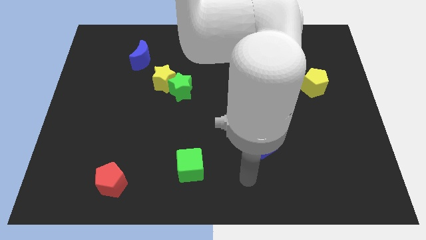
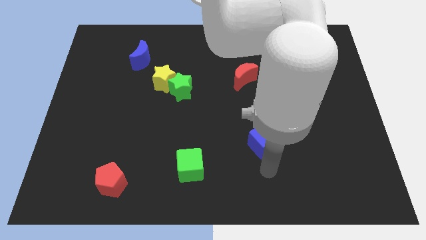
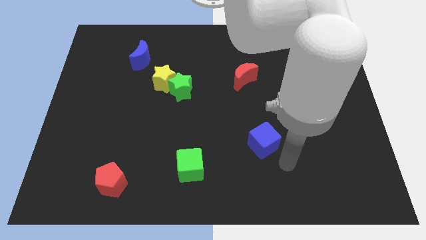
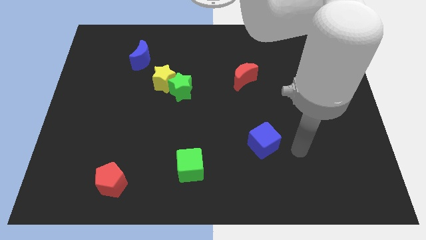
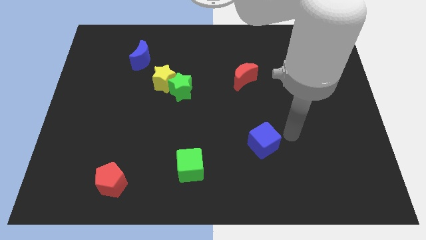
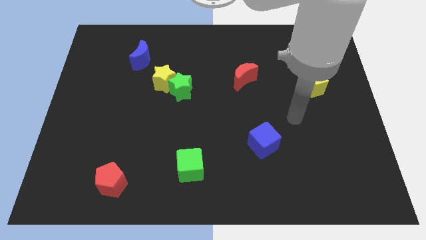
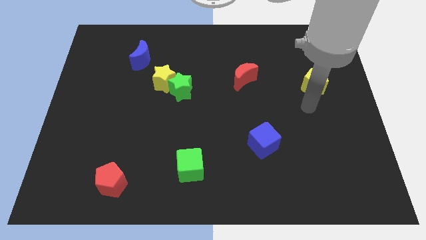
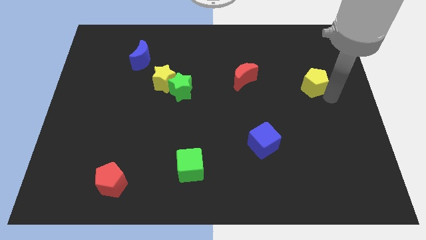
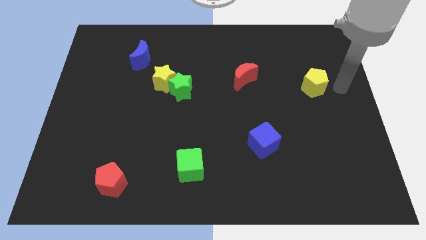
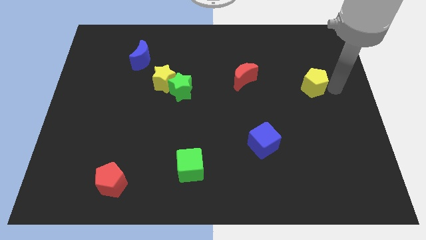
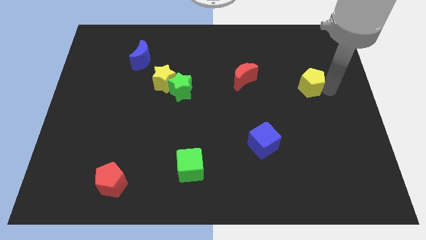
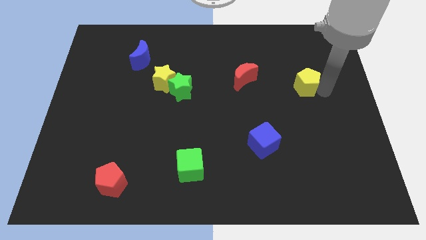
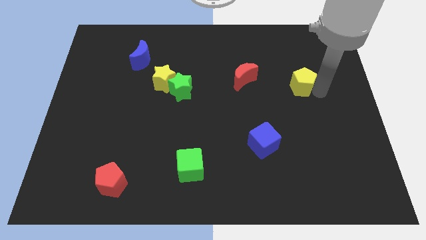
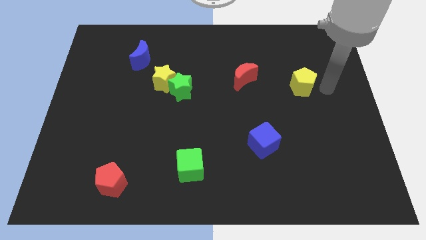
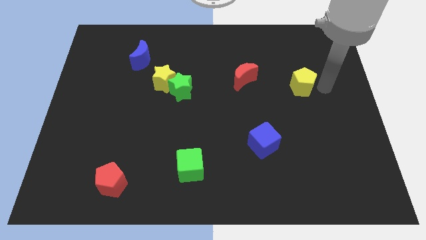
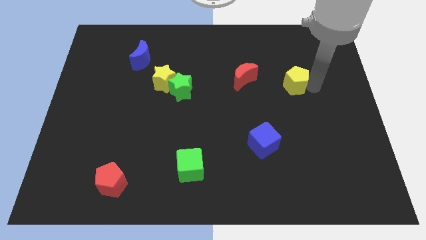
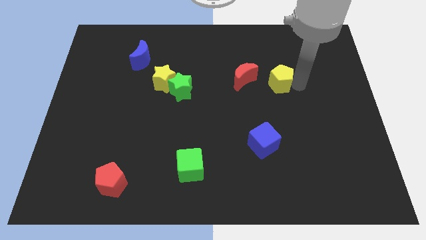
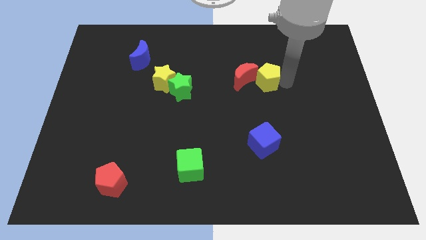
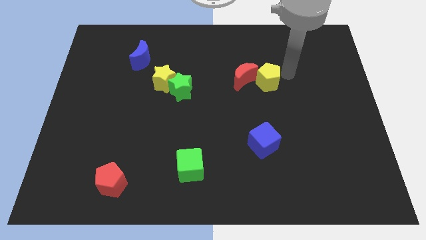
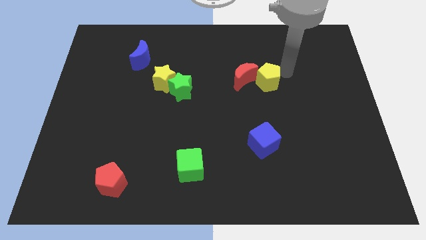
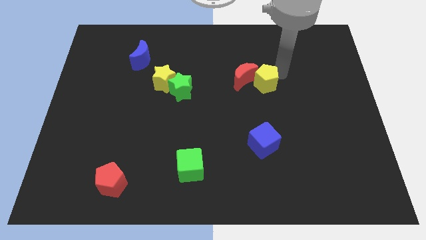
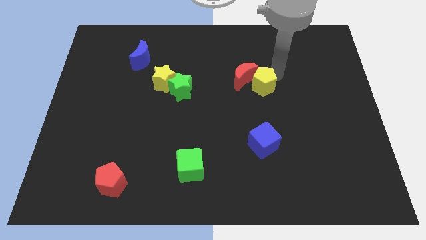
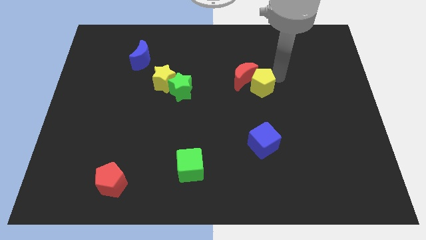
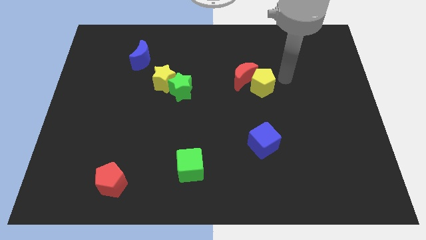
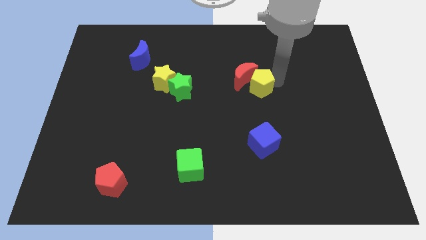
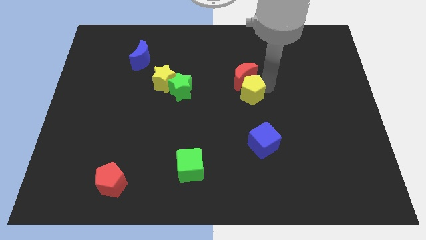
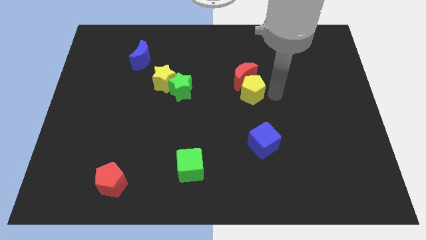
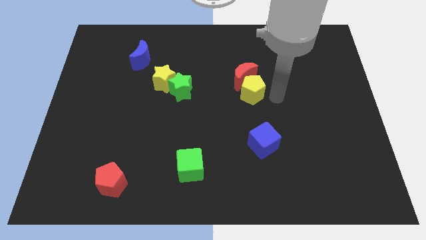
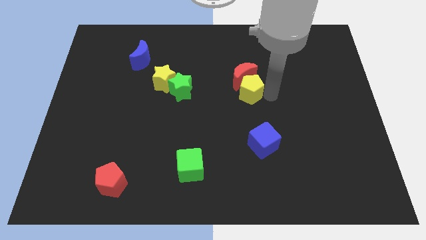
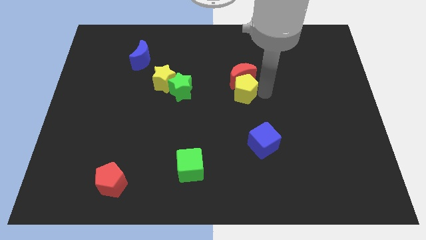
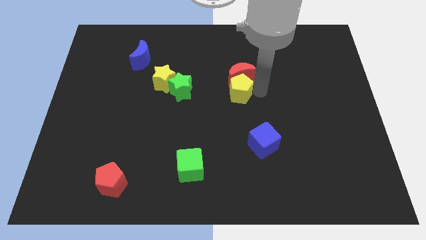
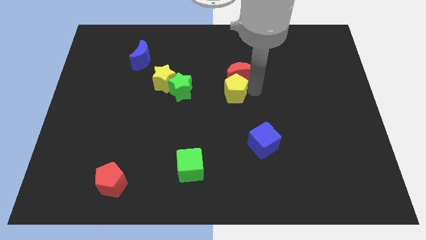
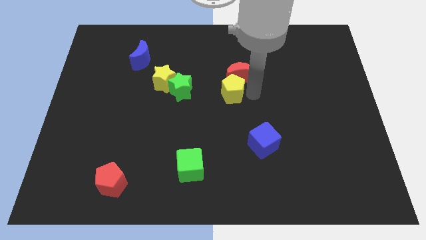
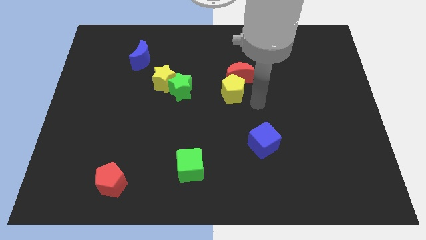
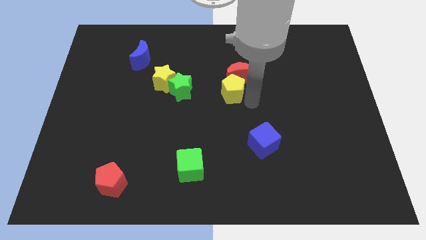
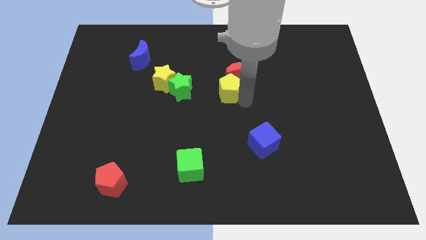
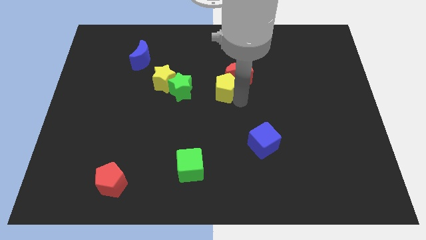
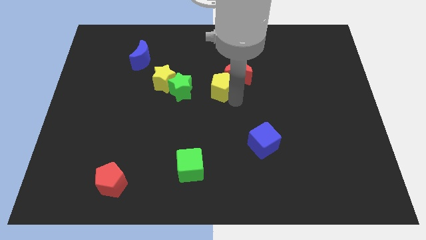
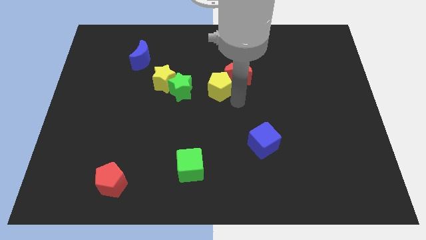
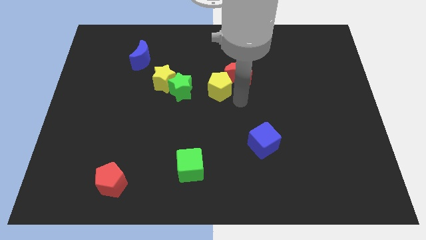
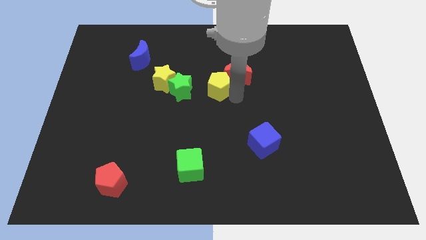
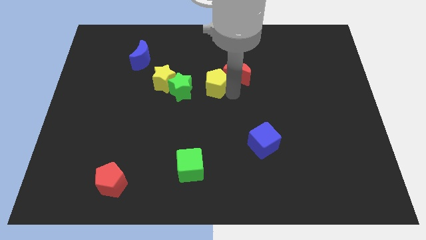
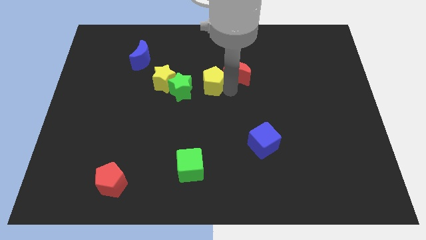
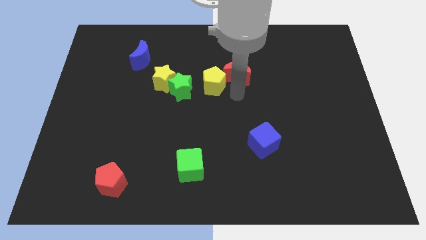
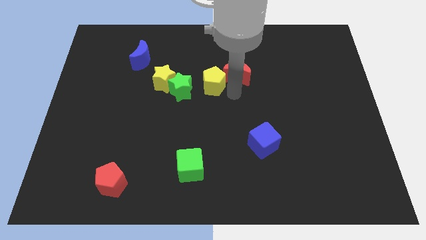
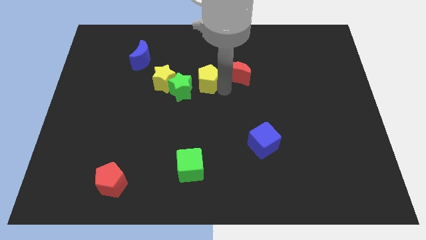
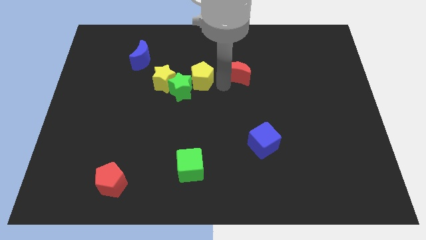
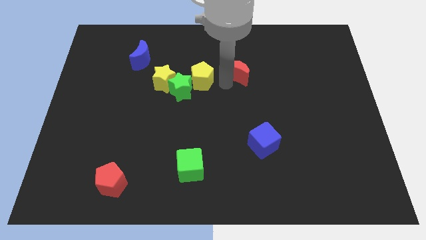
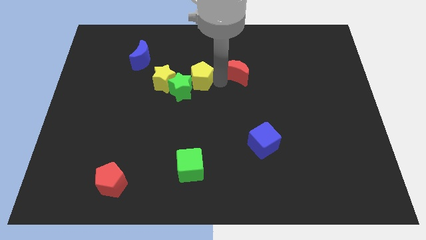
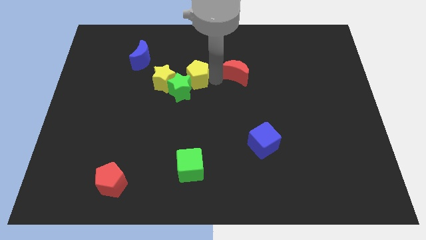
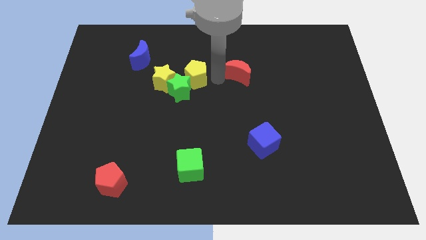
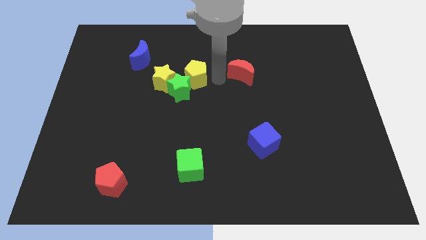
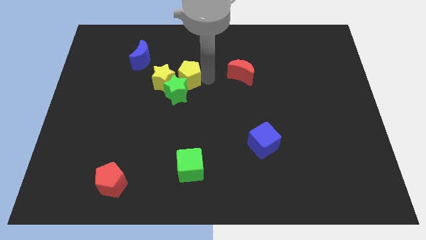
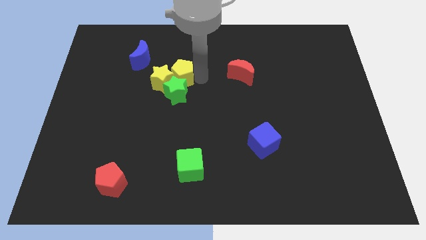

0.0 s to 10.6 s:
move the yellow pentagon to the yellow star

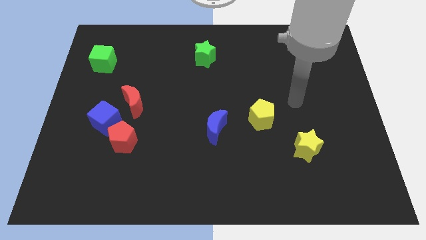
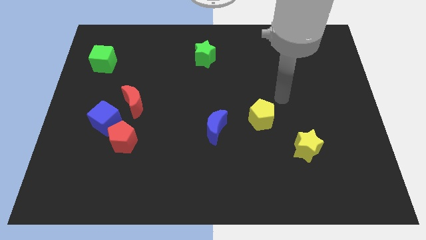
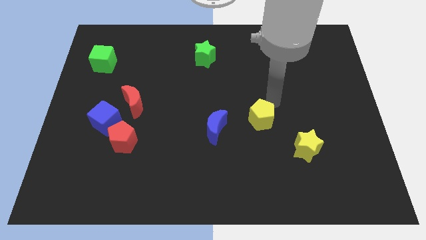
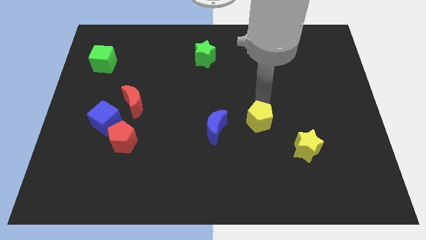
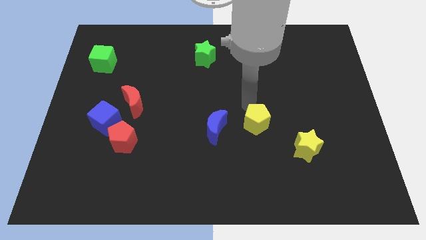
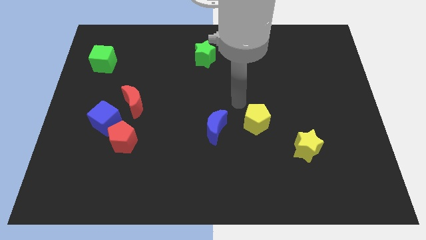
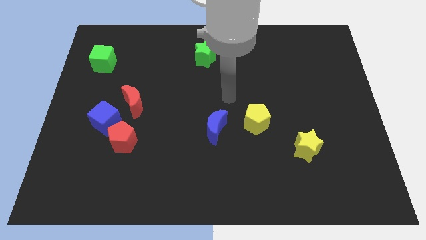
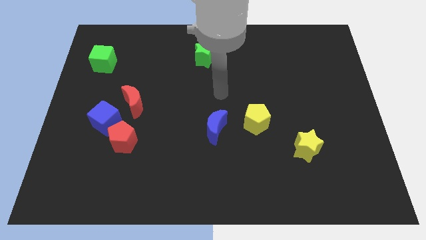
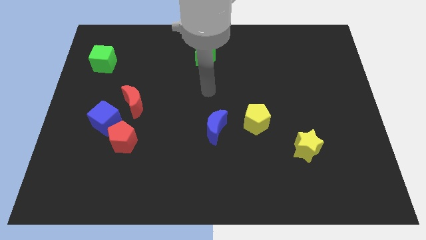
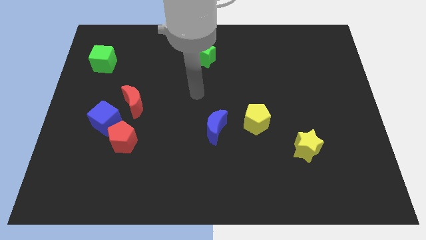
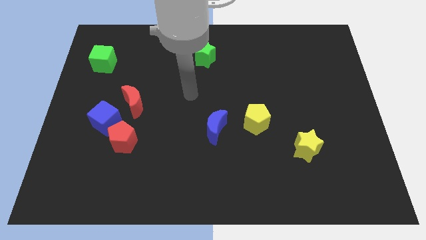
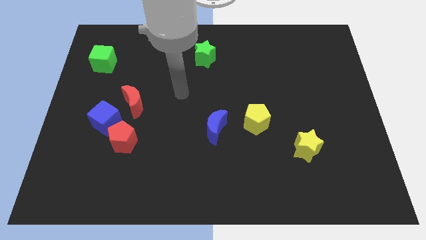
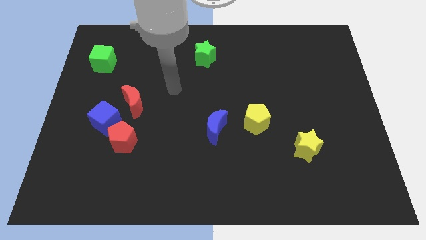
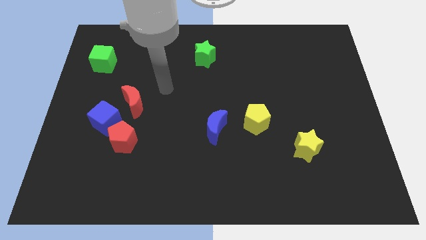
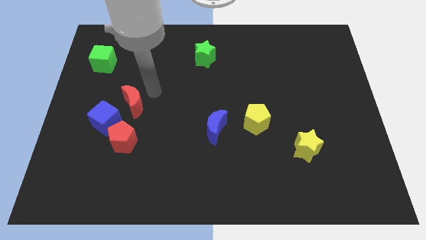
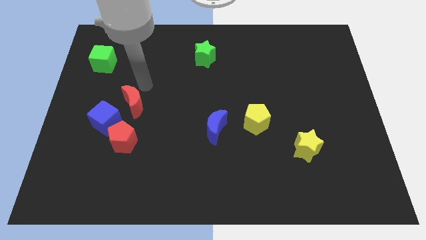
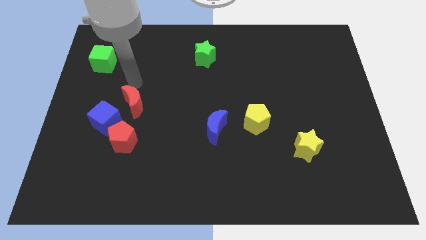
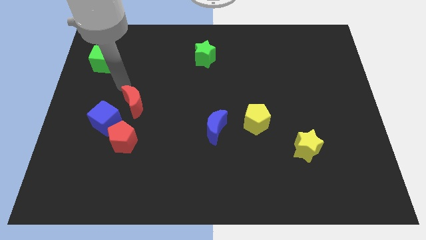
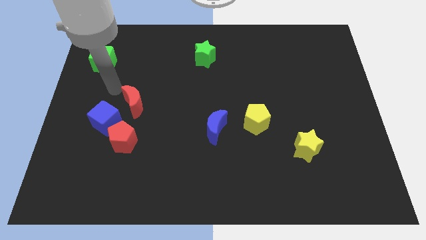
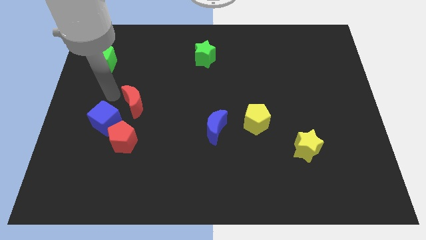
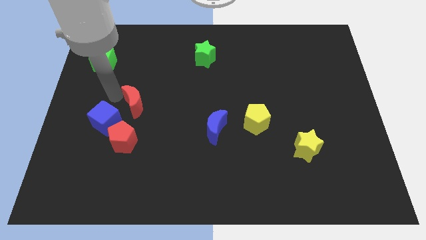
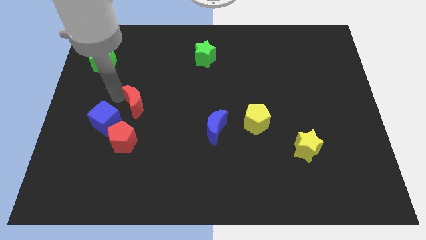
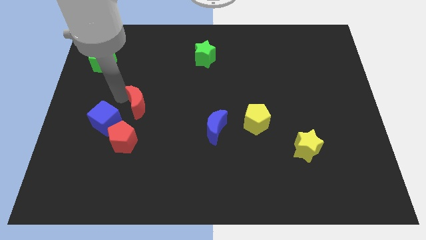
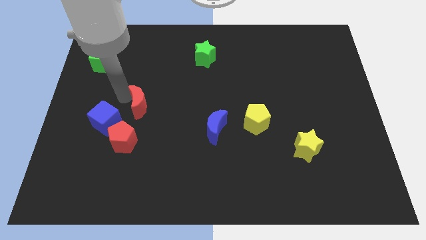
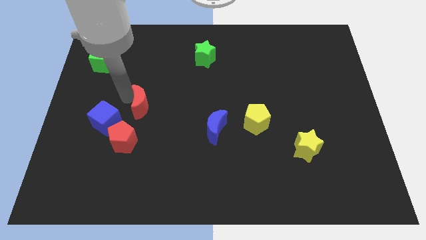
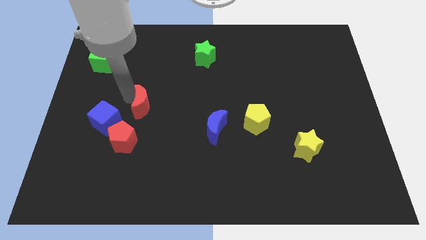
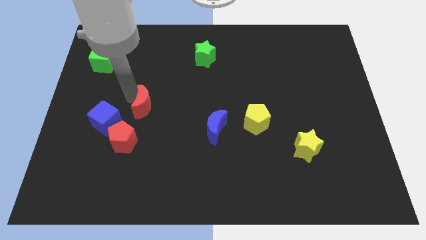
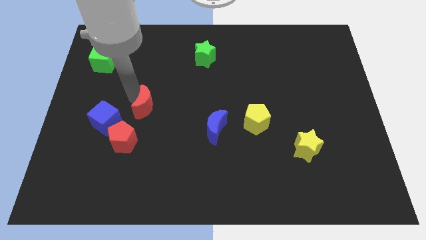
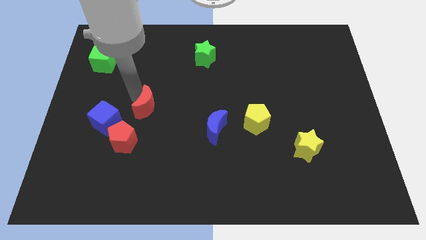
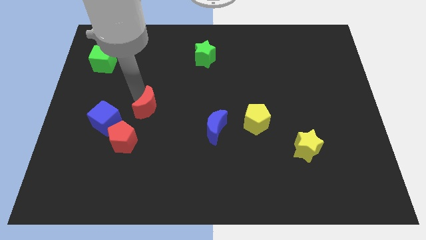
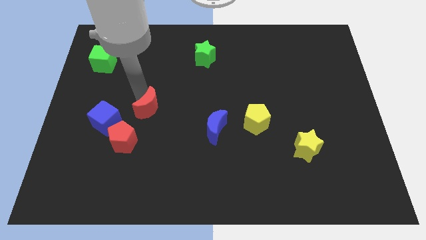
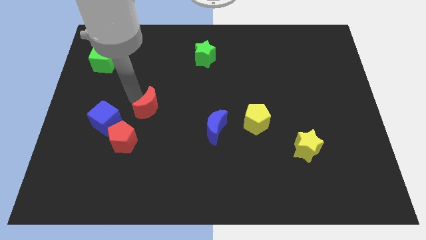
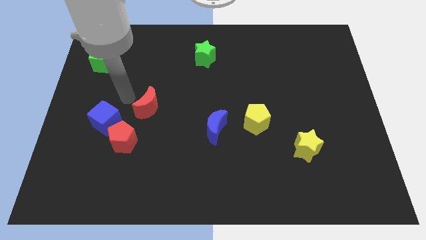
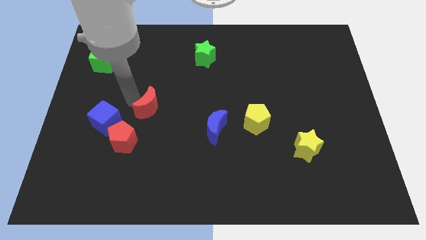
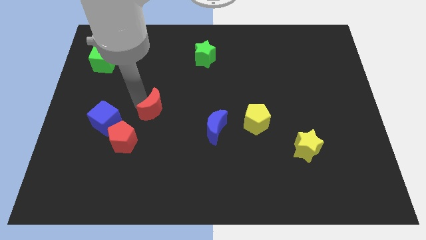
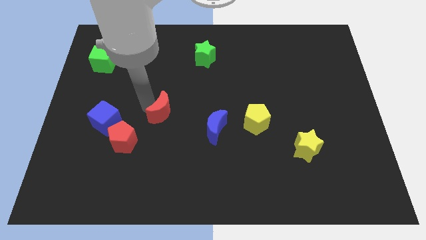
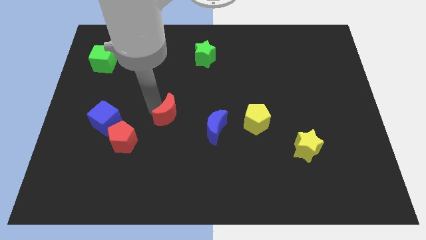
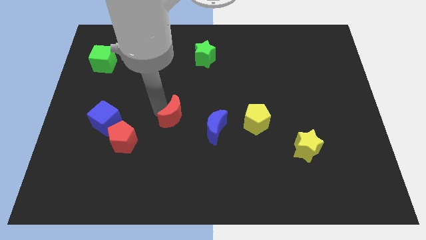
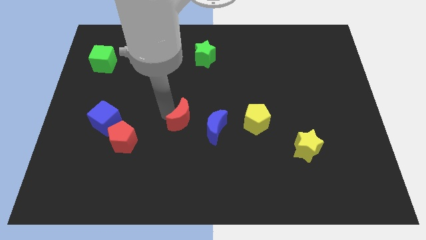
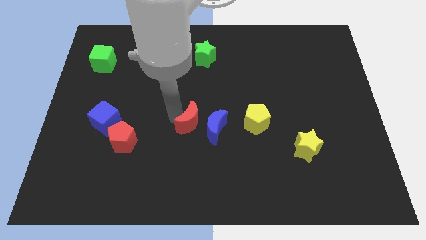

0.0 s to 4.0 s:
put the red moon to the blue moon
